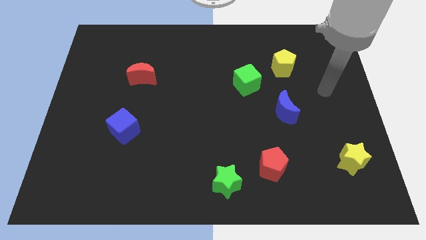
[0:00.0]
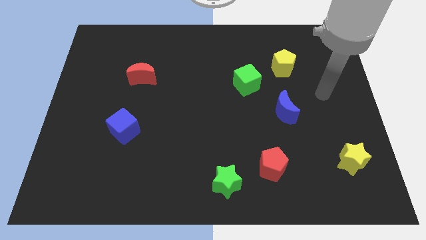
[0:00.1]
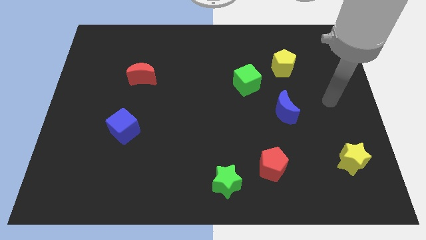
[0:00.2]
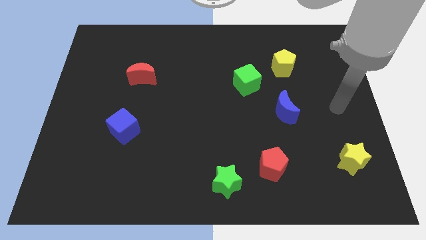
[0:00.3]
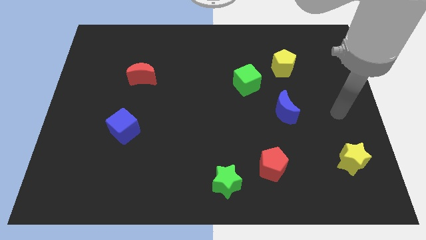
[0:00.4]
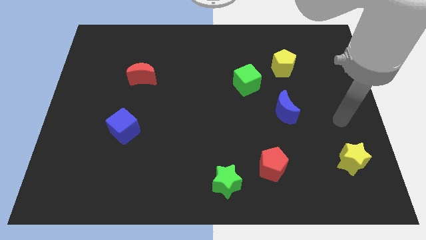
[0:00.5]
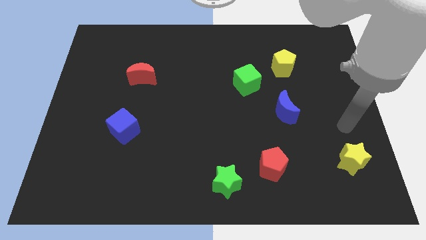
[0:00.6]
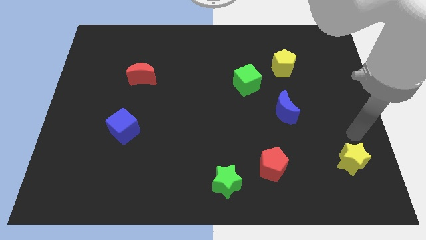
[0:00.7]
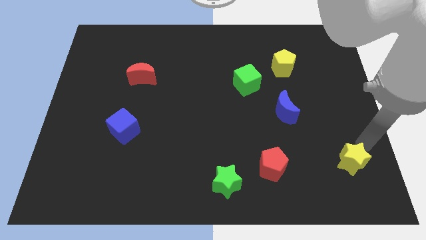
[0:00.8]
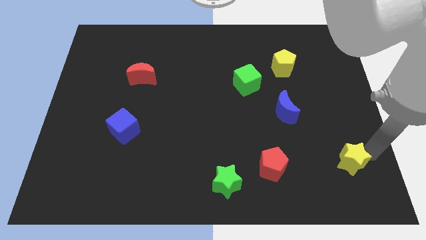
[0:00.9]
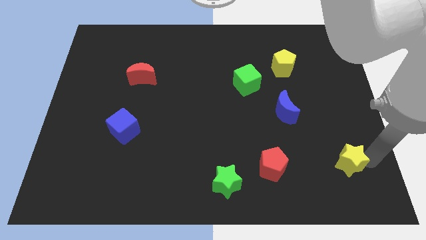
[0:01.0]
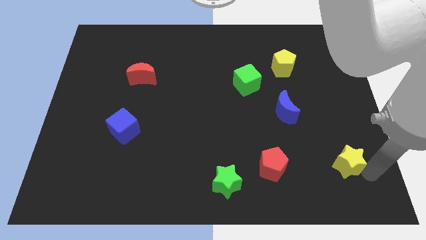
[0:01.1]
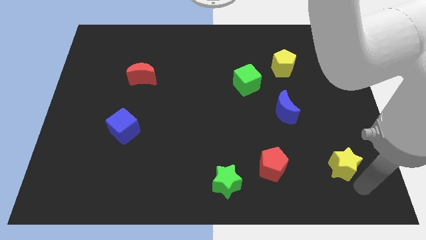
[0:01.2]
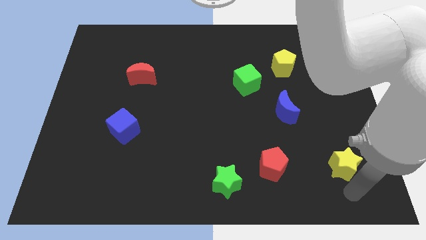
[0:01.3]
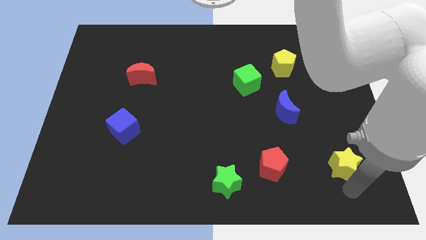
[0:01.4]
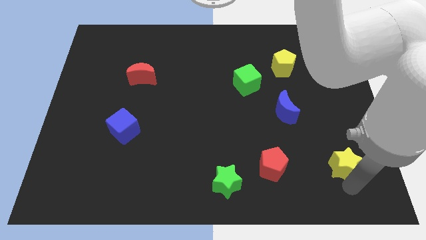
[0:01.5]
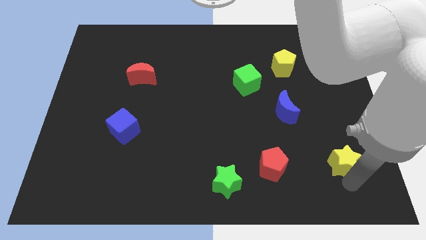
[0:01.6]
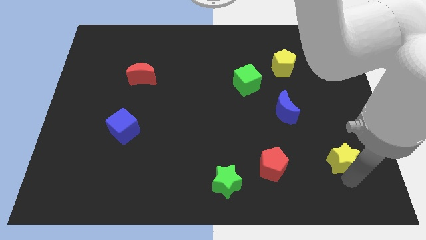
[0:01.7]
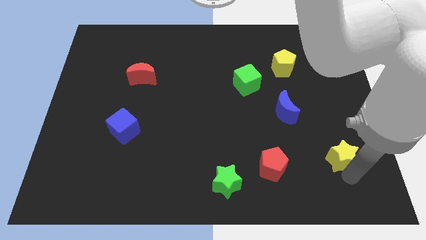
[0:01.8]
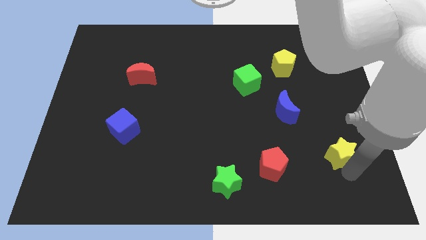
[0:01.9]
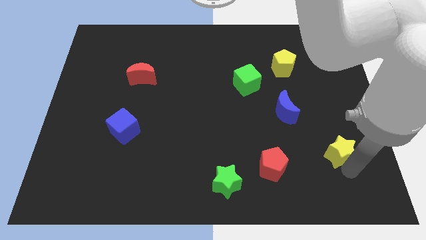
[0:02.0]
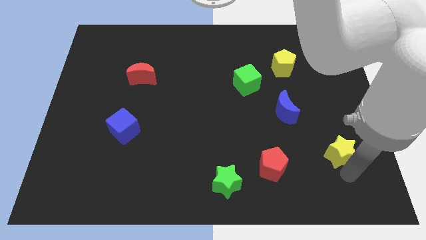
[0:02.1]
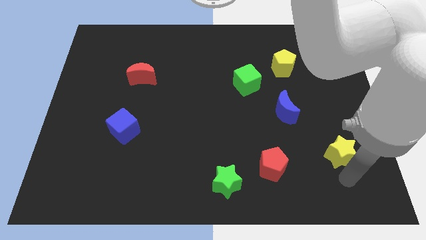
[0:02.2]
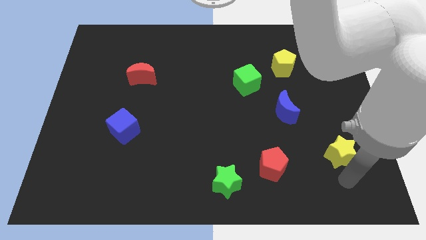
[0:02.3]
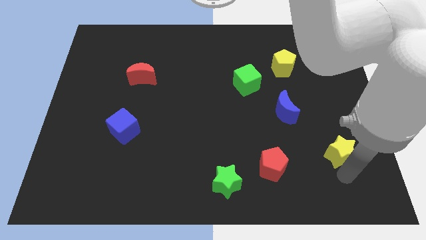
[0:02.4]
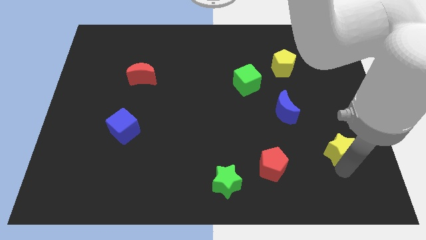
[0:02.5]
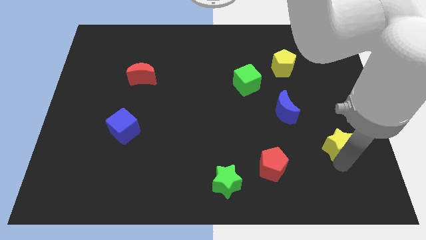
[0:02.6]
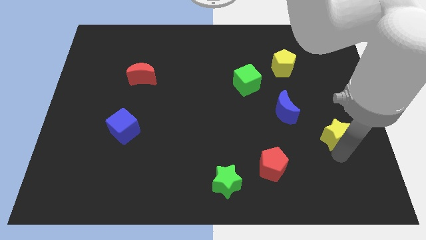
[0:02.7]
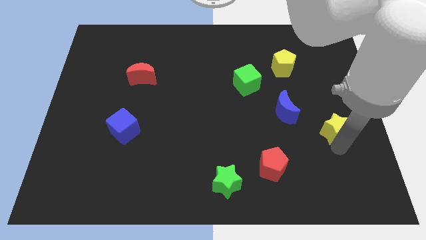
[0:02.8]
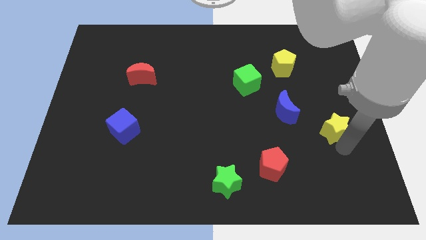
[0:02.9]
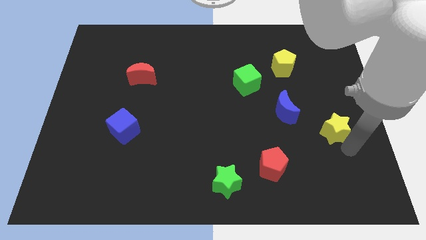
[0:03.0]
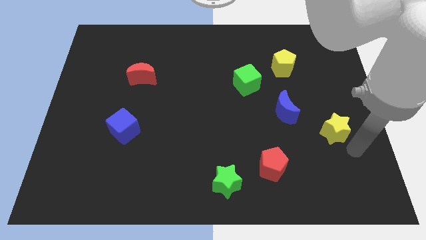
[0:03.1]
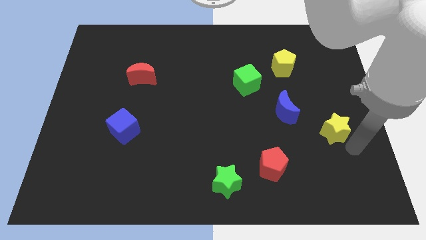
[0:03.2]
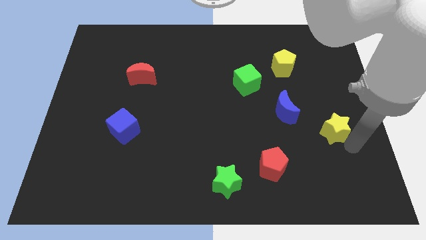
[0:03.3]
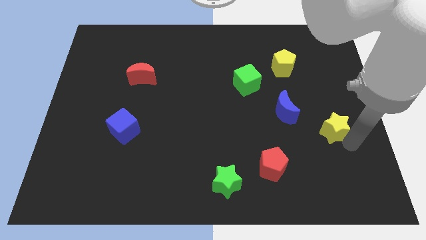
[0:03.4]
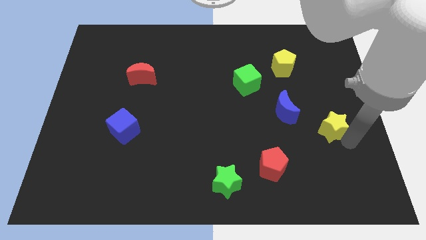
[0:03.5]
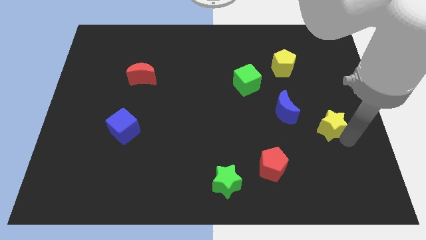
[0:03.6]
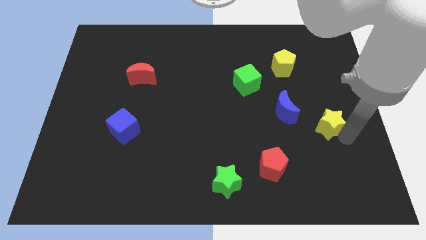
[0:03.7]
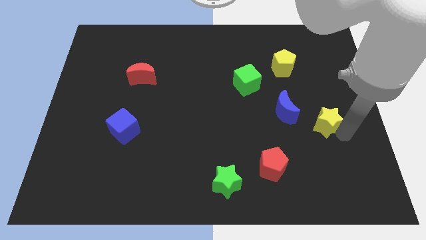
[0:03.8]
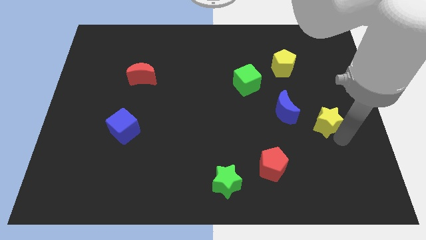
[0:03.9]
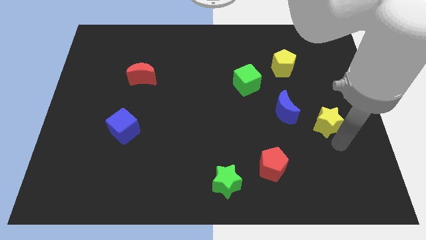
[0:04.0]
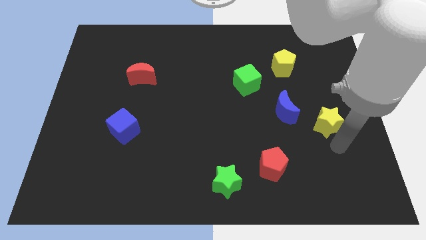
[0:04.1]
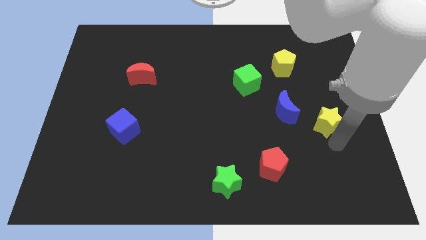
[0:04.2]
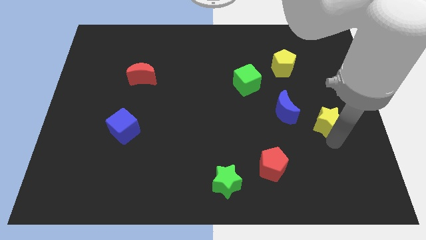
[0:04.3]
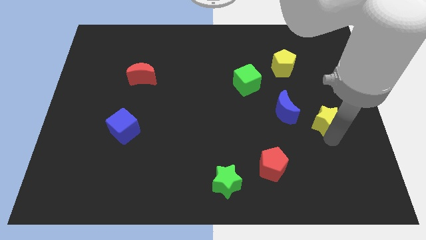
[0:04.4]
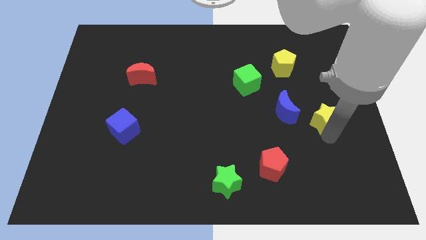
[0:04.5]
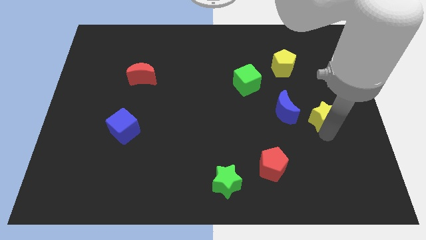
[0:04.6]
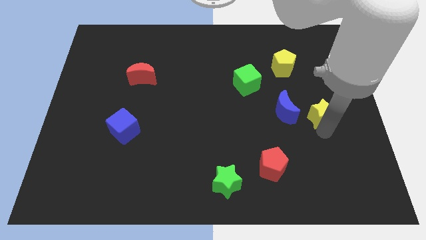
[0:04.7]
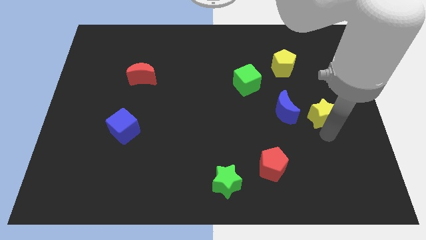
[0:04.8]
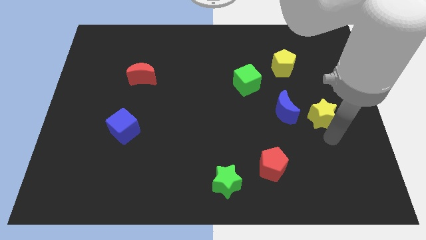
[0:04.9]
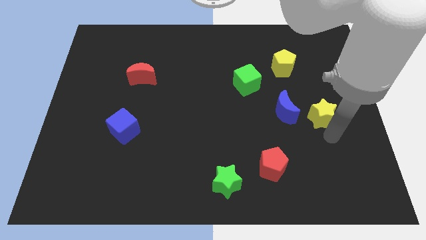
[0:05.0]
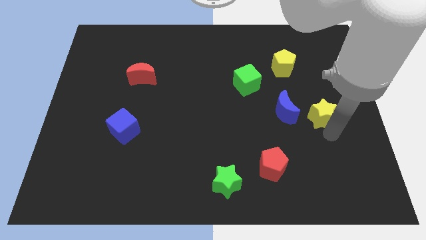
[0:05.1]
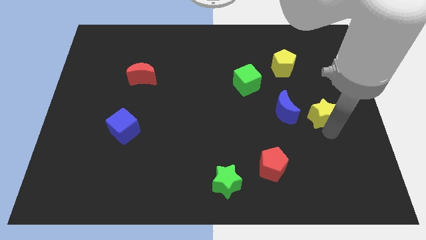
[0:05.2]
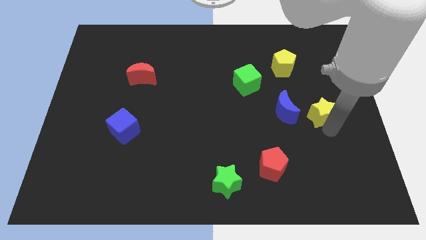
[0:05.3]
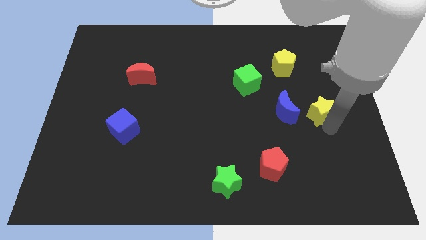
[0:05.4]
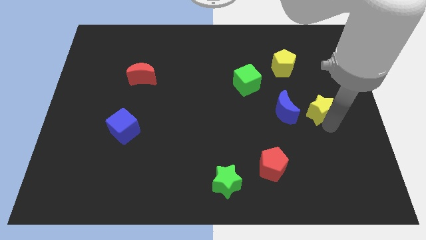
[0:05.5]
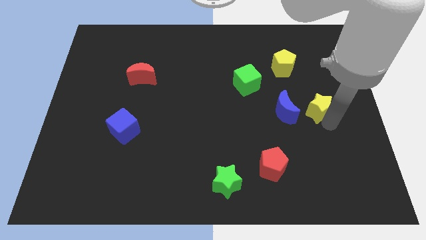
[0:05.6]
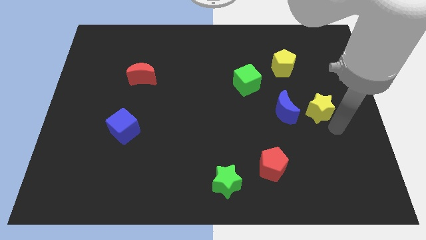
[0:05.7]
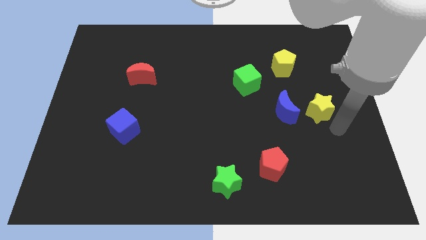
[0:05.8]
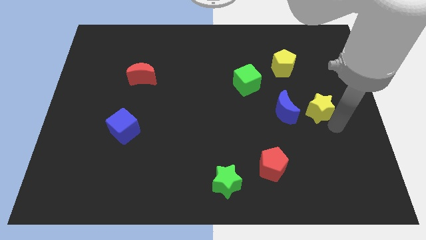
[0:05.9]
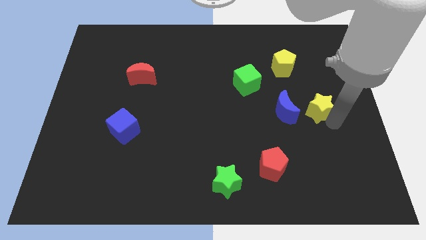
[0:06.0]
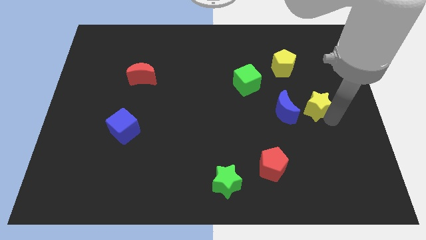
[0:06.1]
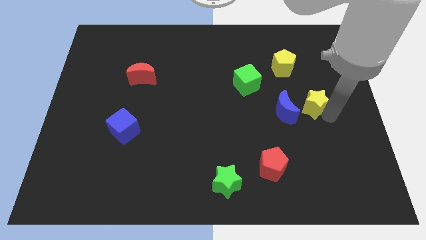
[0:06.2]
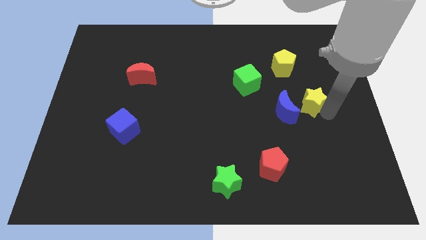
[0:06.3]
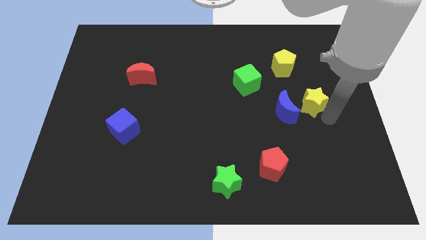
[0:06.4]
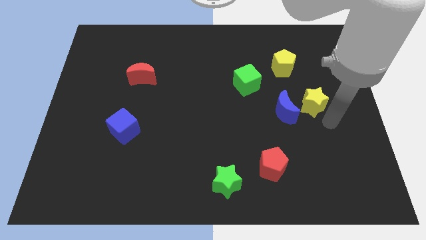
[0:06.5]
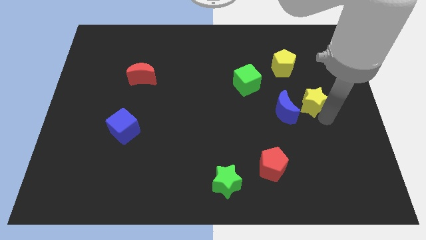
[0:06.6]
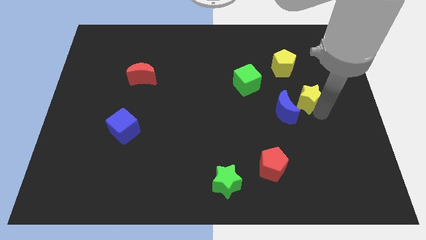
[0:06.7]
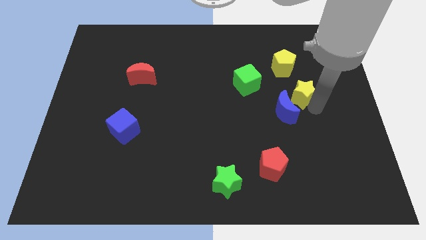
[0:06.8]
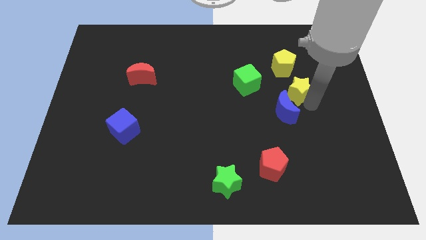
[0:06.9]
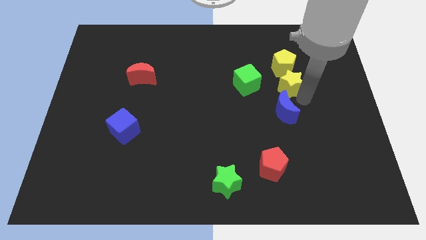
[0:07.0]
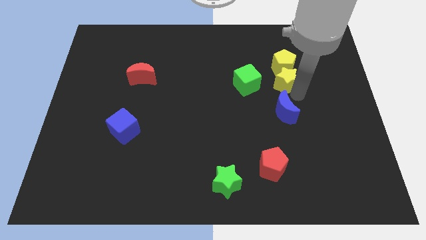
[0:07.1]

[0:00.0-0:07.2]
push the yellow star to the yellow pentagon

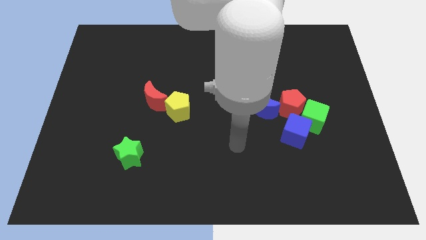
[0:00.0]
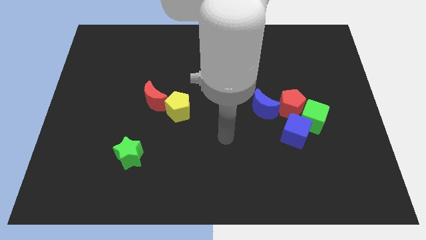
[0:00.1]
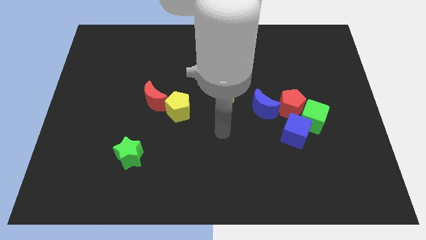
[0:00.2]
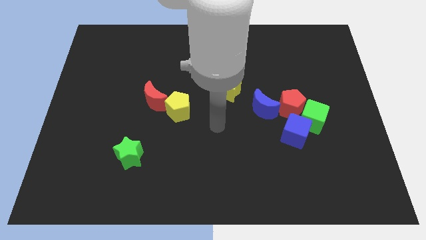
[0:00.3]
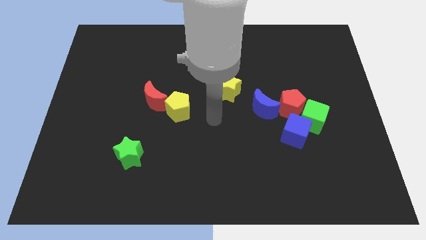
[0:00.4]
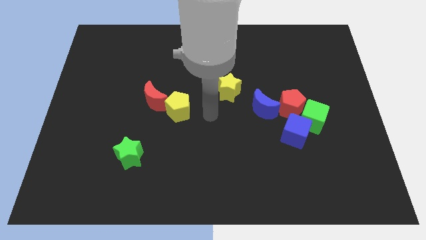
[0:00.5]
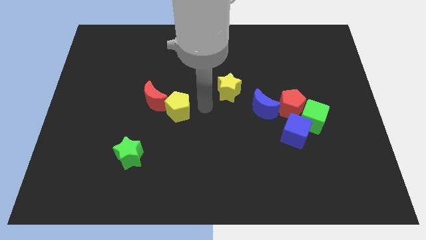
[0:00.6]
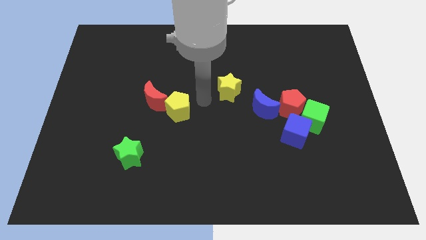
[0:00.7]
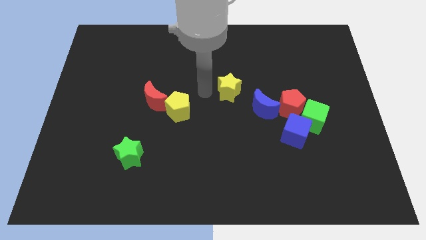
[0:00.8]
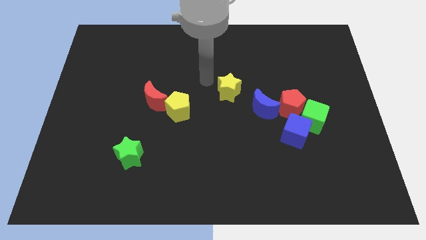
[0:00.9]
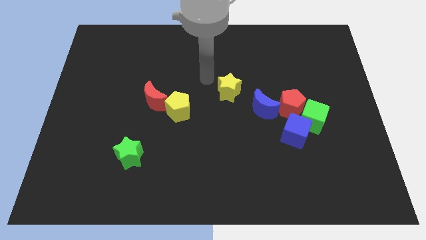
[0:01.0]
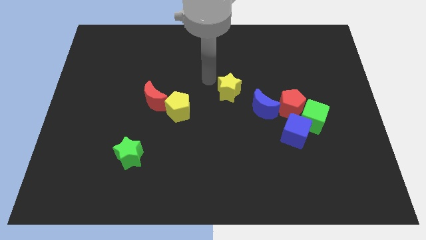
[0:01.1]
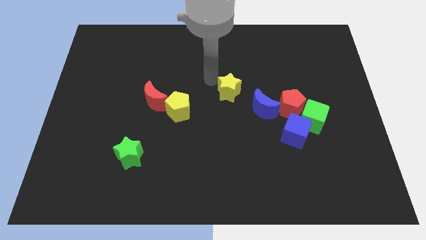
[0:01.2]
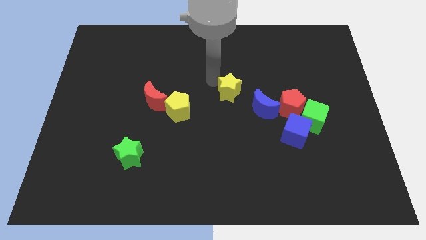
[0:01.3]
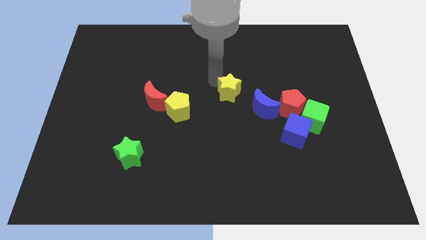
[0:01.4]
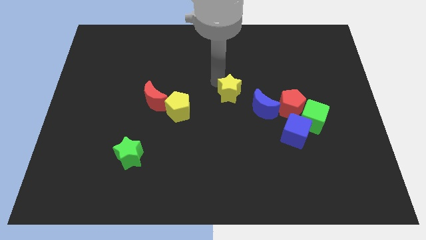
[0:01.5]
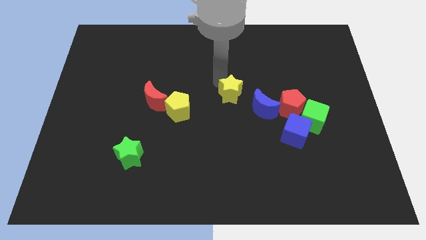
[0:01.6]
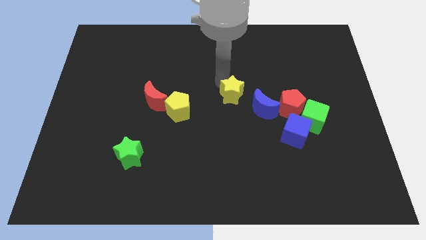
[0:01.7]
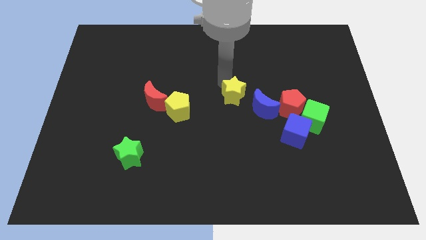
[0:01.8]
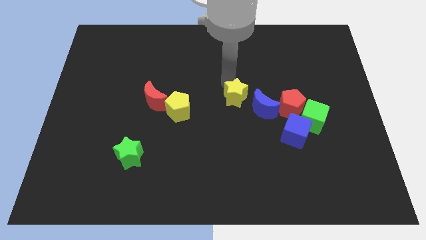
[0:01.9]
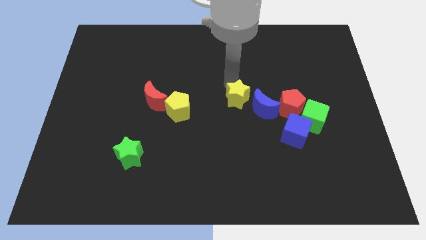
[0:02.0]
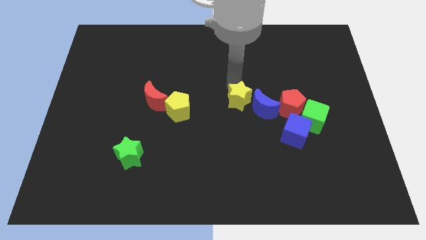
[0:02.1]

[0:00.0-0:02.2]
slide the yellow star close to the blue moon
